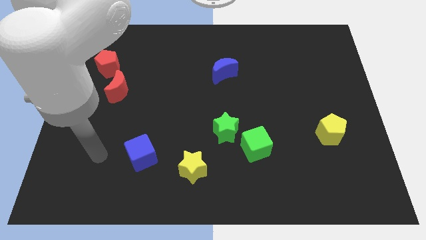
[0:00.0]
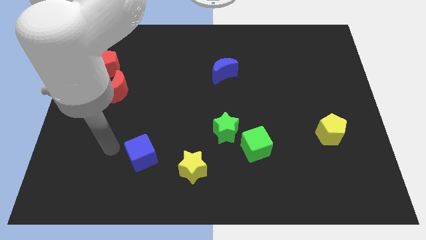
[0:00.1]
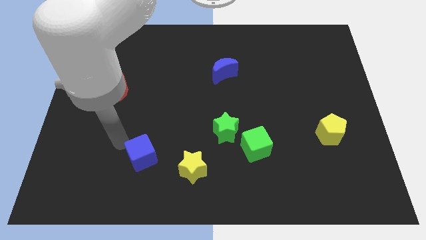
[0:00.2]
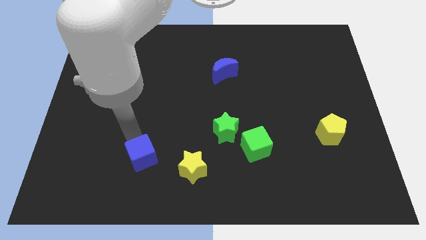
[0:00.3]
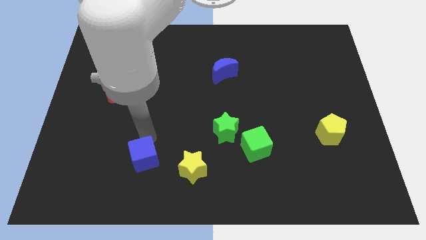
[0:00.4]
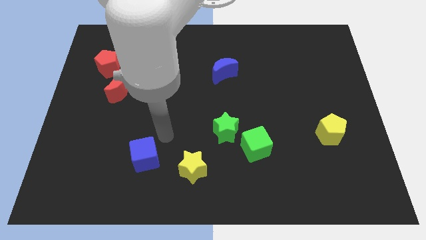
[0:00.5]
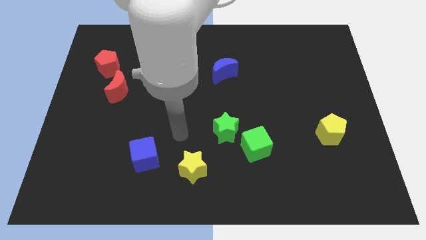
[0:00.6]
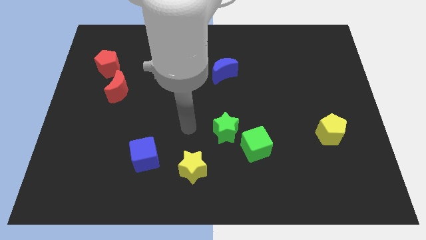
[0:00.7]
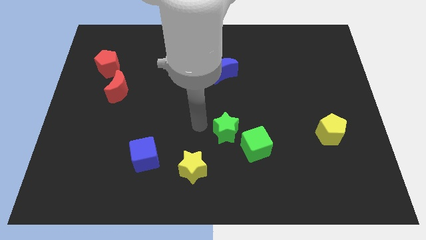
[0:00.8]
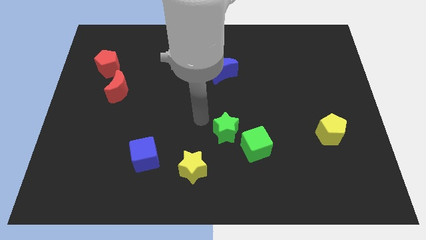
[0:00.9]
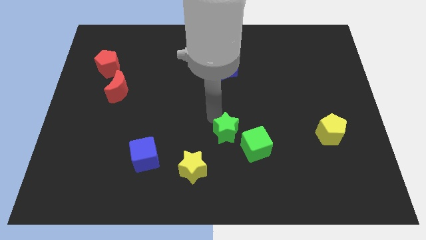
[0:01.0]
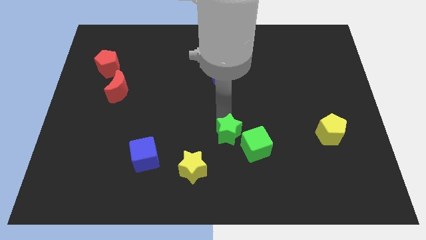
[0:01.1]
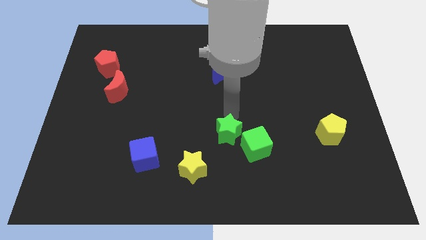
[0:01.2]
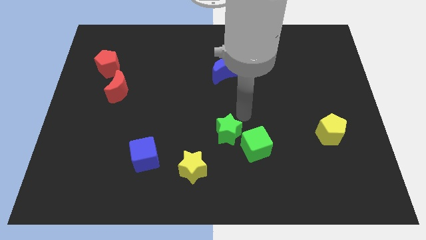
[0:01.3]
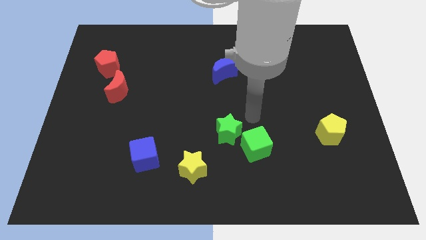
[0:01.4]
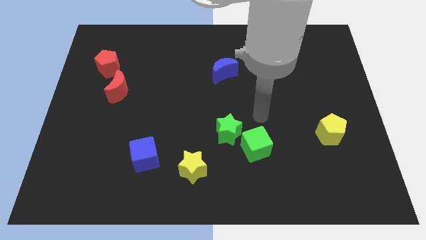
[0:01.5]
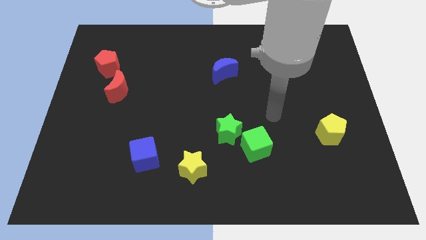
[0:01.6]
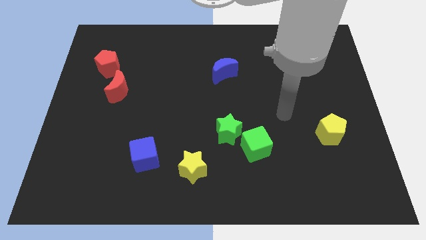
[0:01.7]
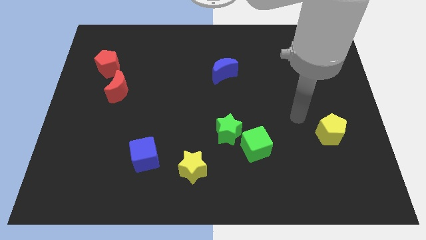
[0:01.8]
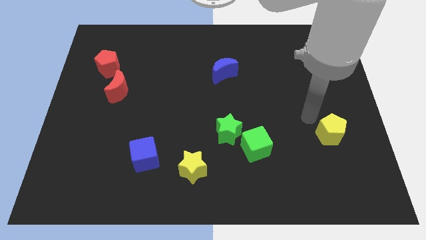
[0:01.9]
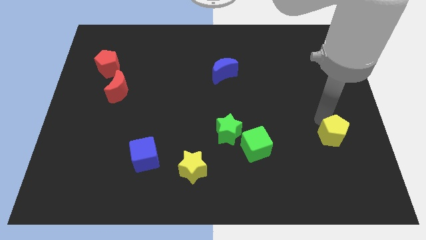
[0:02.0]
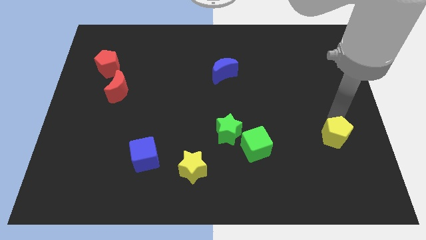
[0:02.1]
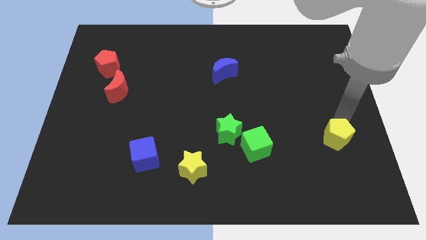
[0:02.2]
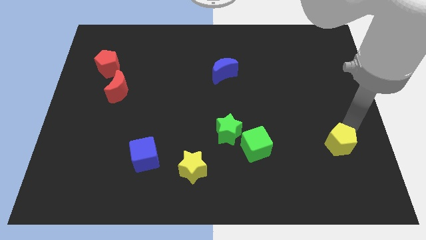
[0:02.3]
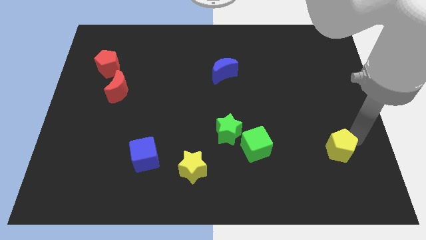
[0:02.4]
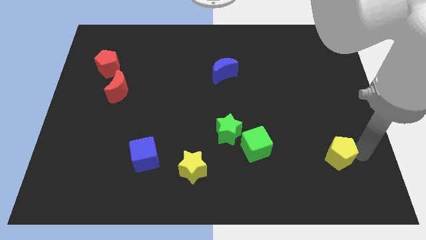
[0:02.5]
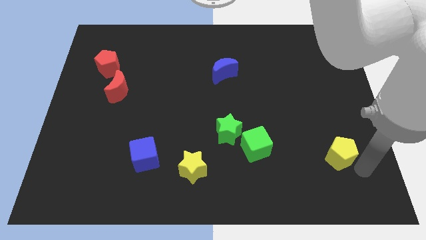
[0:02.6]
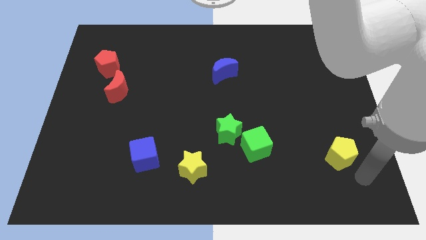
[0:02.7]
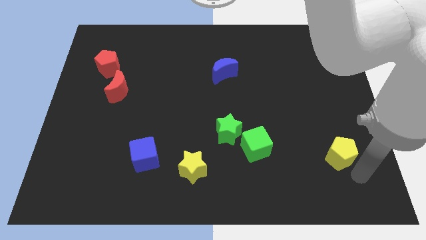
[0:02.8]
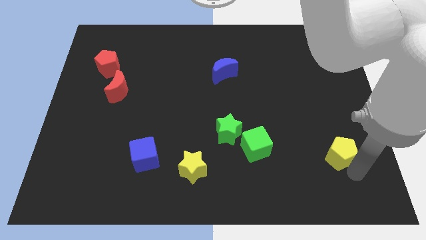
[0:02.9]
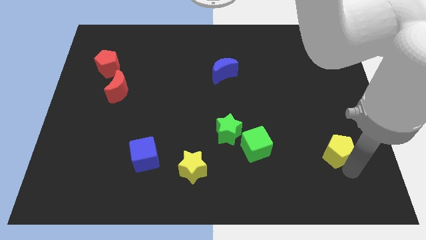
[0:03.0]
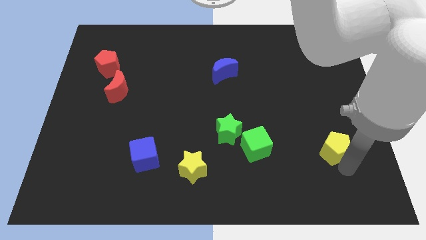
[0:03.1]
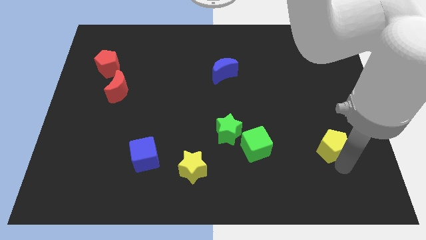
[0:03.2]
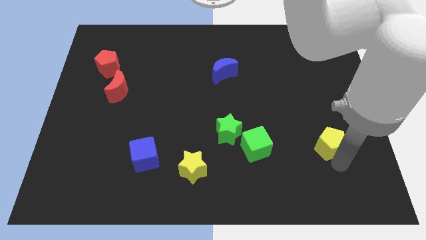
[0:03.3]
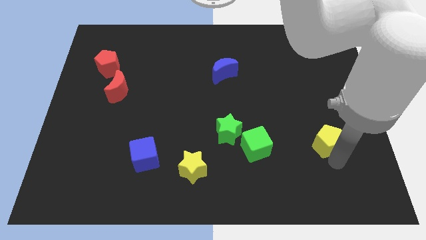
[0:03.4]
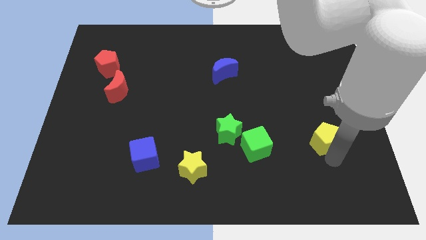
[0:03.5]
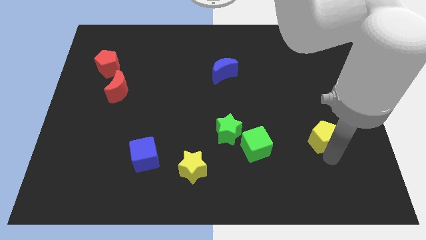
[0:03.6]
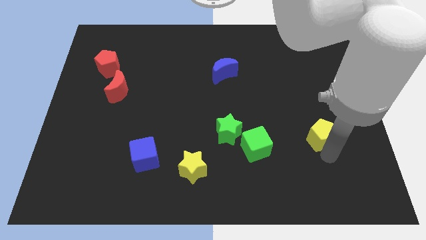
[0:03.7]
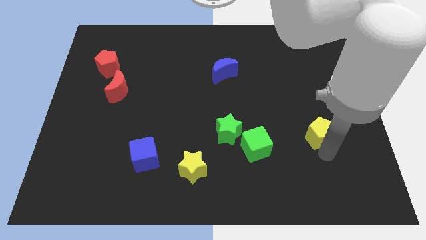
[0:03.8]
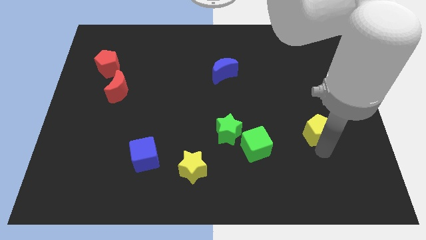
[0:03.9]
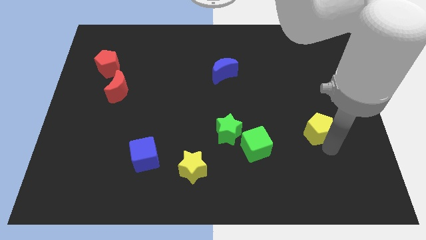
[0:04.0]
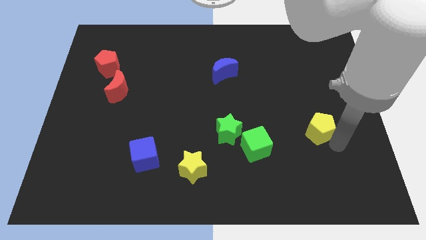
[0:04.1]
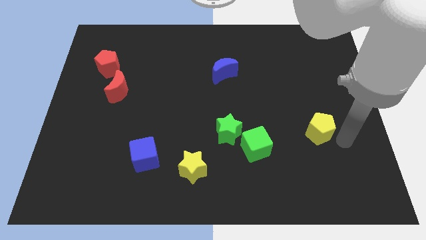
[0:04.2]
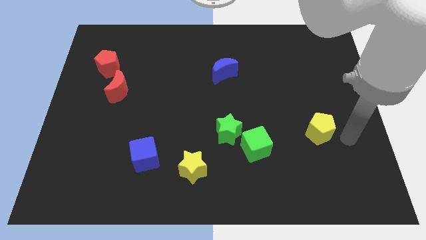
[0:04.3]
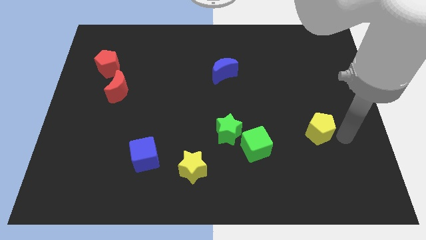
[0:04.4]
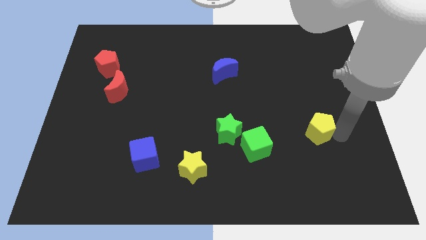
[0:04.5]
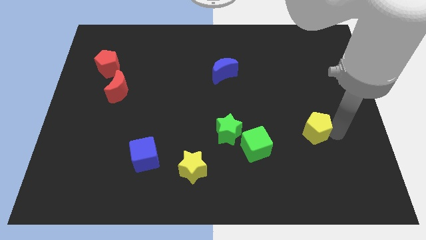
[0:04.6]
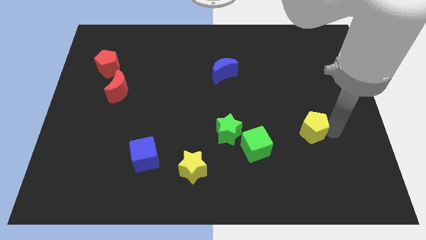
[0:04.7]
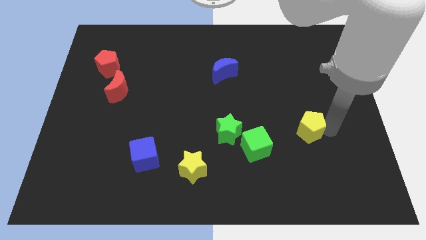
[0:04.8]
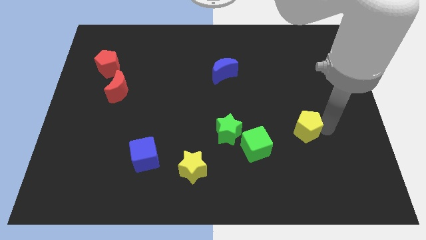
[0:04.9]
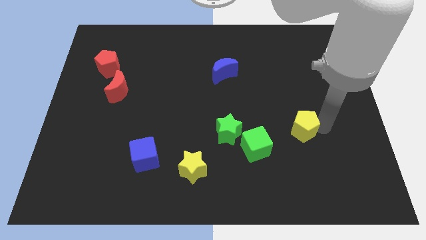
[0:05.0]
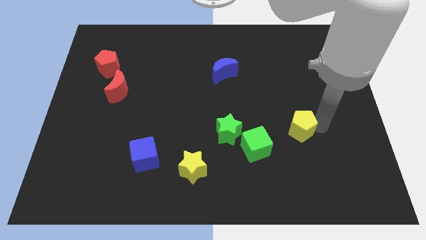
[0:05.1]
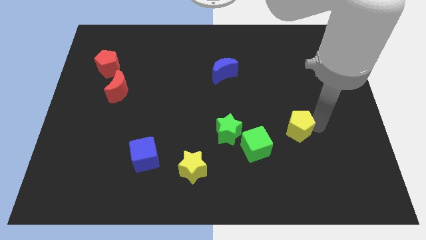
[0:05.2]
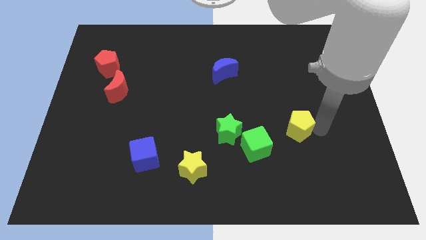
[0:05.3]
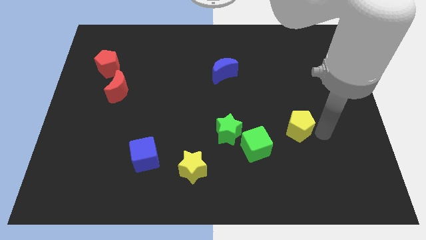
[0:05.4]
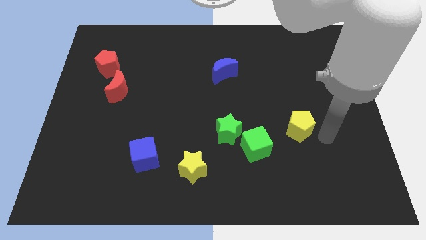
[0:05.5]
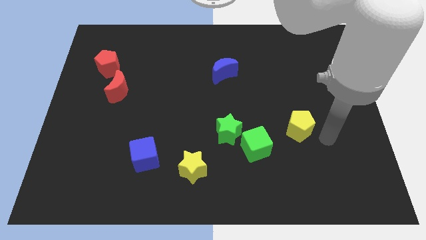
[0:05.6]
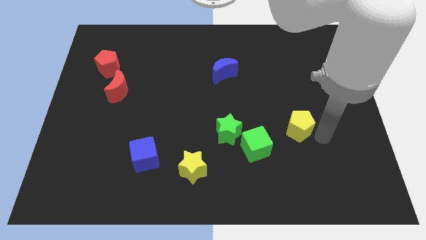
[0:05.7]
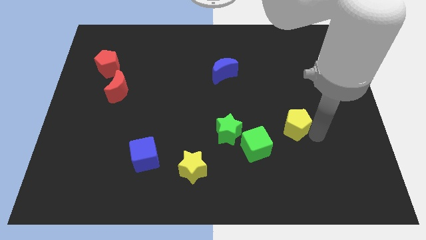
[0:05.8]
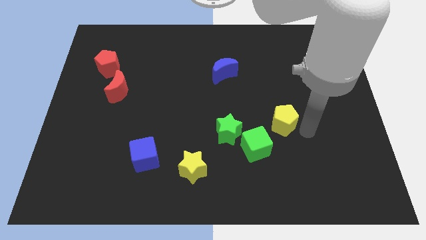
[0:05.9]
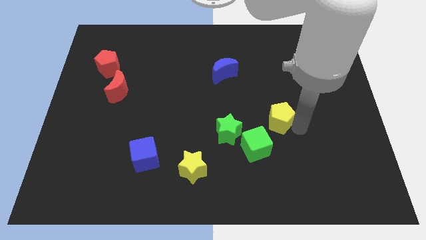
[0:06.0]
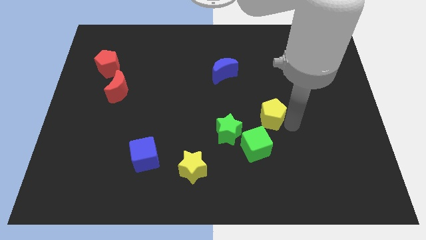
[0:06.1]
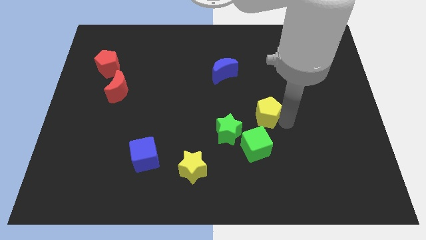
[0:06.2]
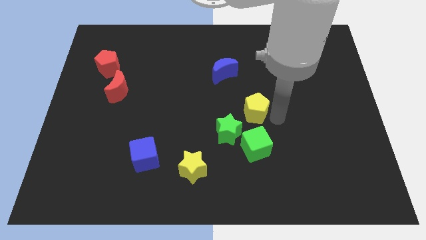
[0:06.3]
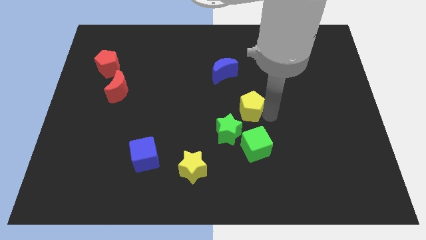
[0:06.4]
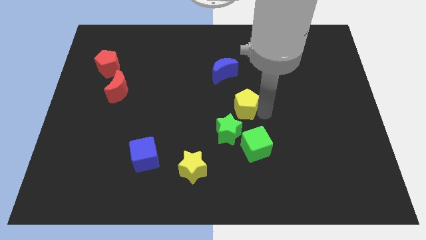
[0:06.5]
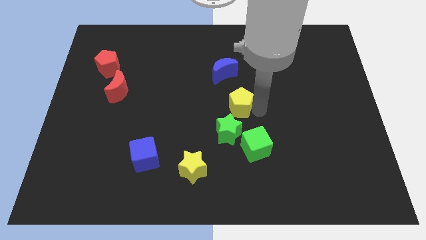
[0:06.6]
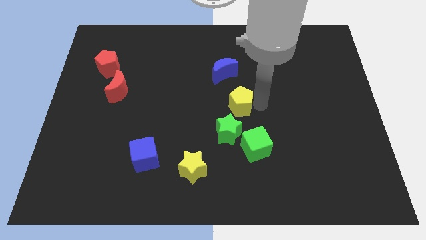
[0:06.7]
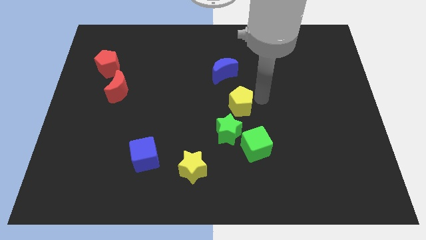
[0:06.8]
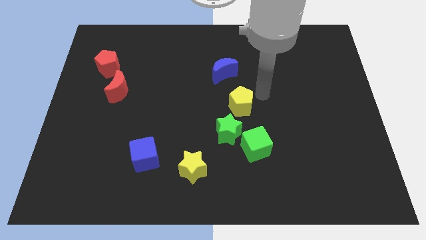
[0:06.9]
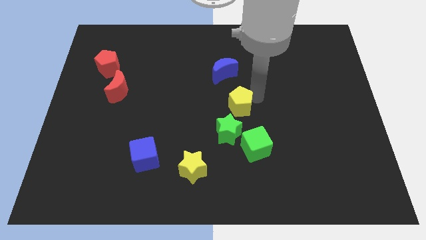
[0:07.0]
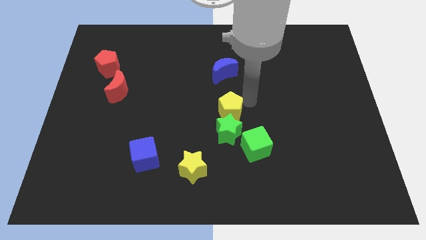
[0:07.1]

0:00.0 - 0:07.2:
slide the yellow pentagon to the left

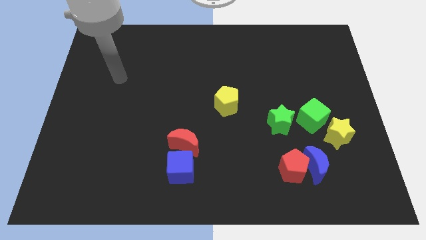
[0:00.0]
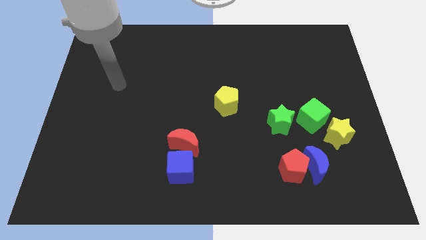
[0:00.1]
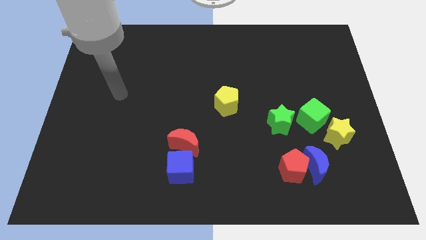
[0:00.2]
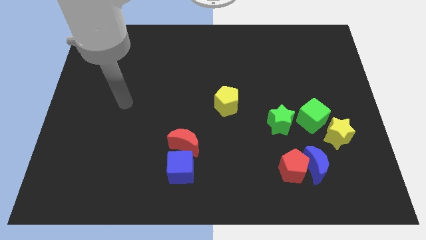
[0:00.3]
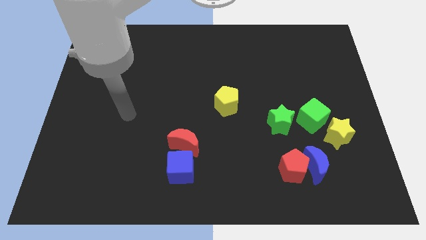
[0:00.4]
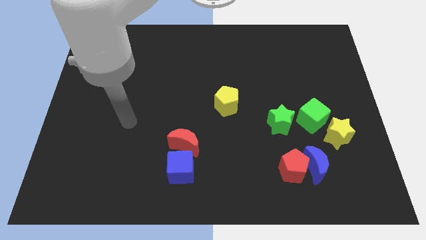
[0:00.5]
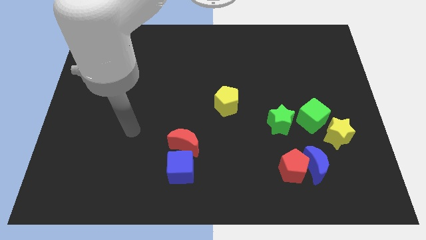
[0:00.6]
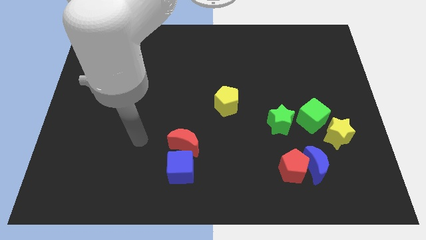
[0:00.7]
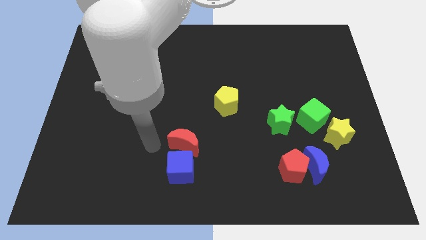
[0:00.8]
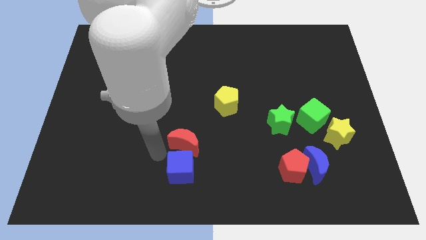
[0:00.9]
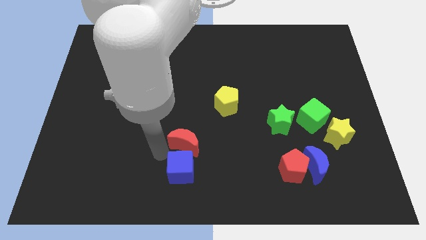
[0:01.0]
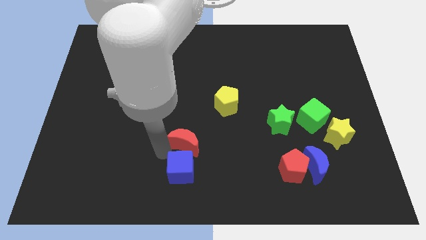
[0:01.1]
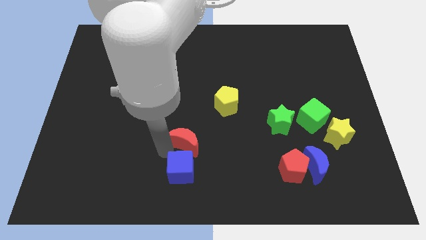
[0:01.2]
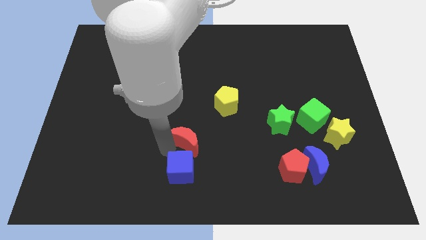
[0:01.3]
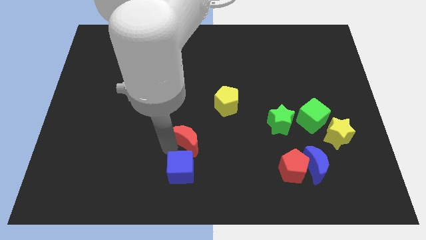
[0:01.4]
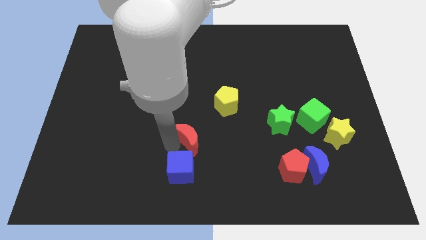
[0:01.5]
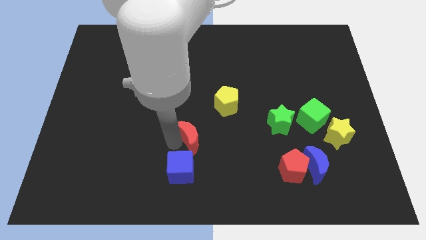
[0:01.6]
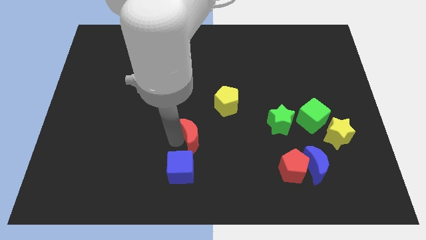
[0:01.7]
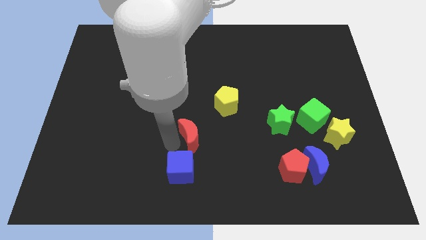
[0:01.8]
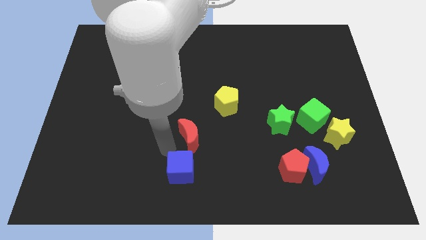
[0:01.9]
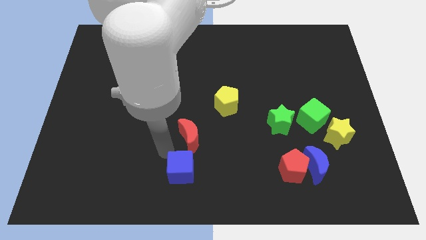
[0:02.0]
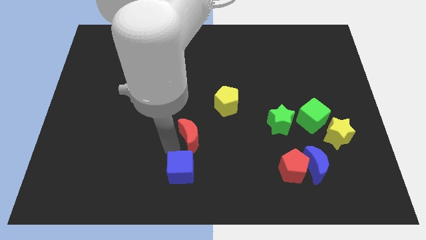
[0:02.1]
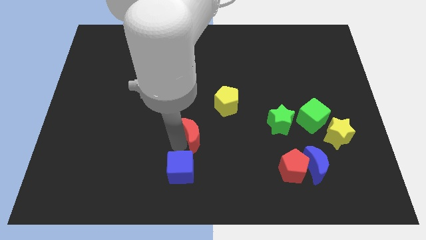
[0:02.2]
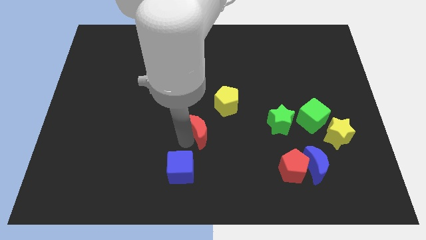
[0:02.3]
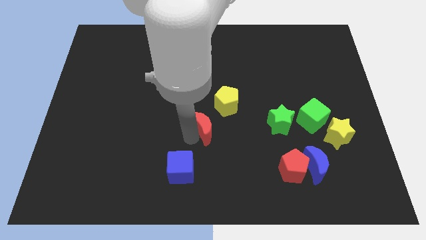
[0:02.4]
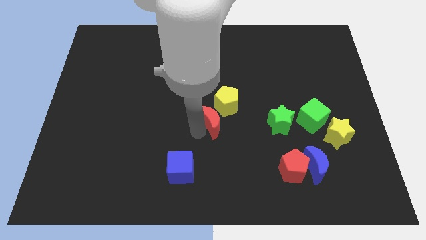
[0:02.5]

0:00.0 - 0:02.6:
slightly push the red moon upwards and then right
